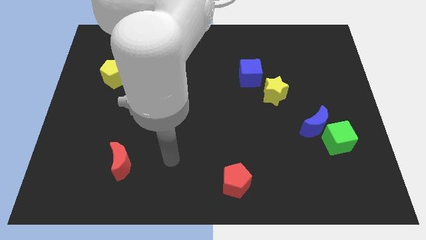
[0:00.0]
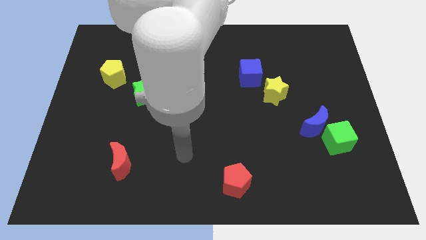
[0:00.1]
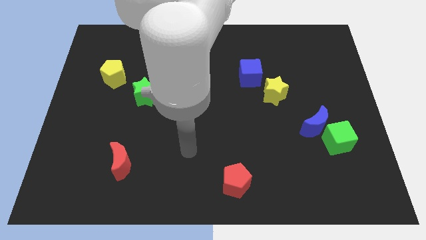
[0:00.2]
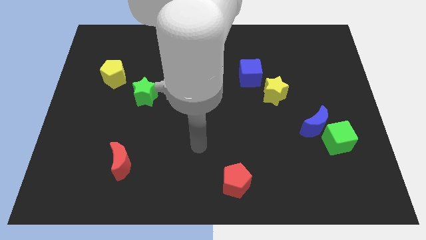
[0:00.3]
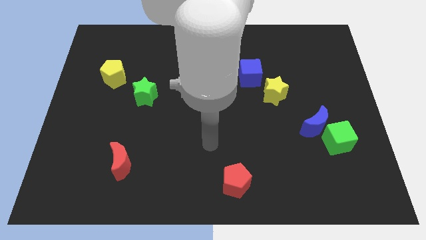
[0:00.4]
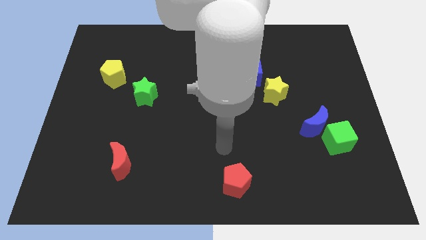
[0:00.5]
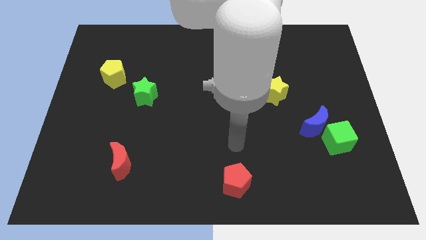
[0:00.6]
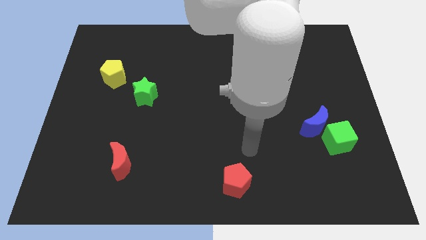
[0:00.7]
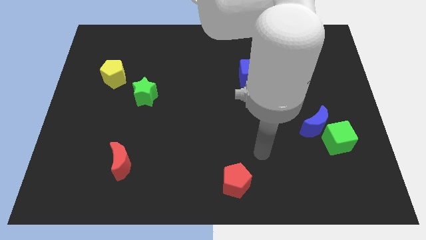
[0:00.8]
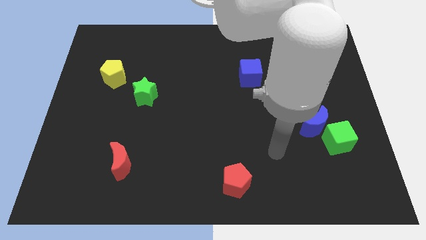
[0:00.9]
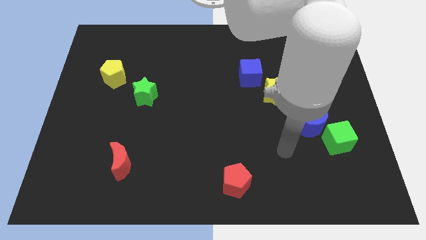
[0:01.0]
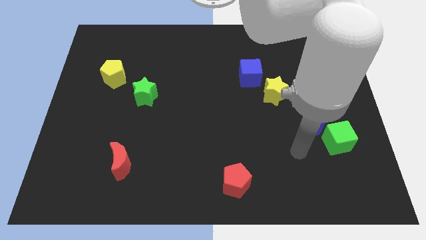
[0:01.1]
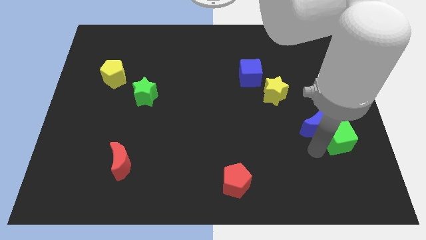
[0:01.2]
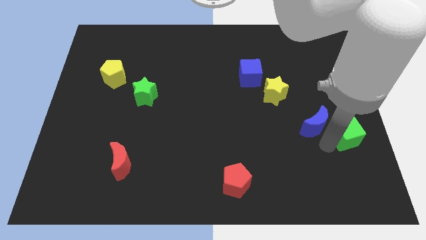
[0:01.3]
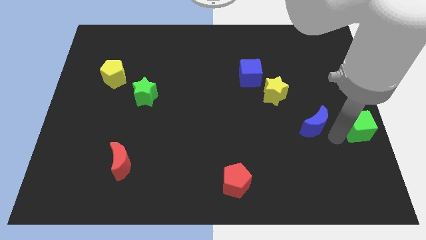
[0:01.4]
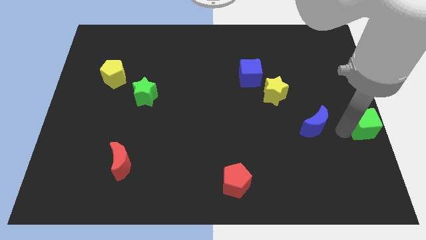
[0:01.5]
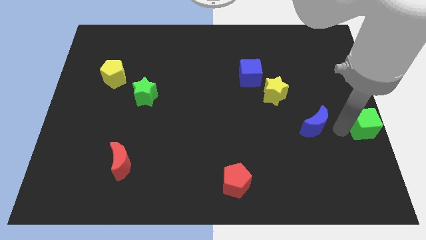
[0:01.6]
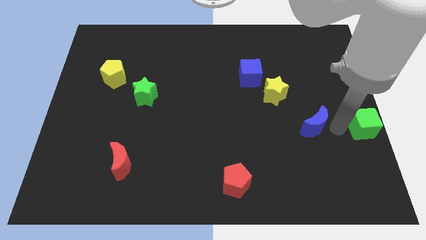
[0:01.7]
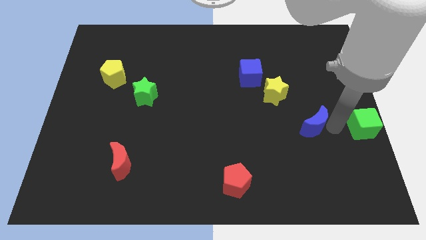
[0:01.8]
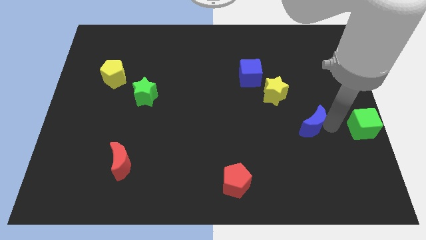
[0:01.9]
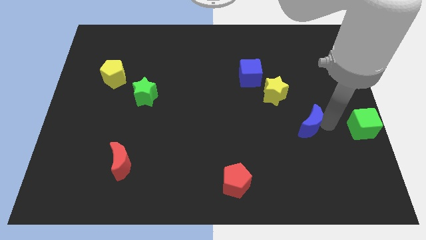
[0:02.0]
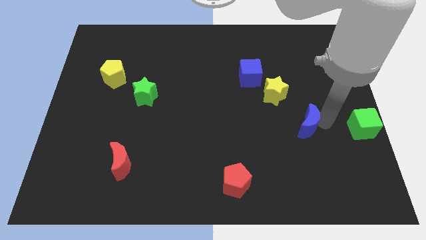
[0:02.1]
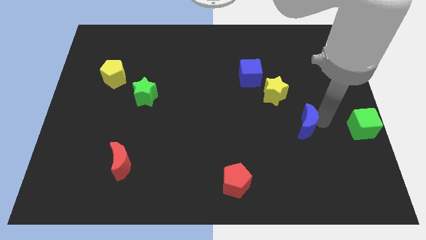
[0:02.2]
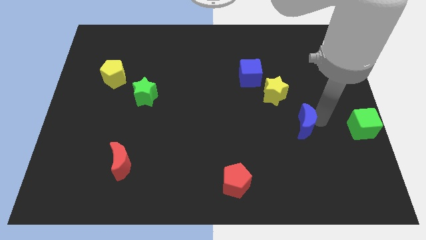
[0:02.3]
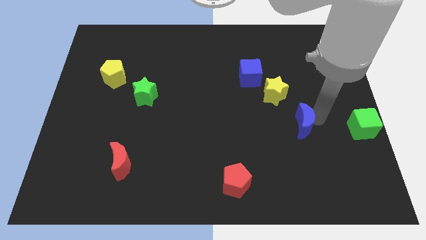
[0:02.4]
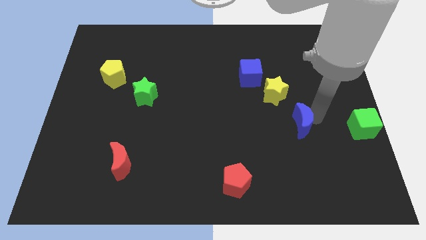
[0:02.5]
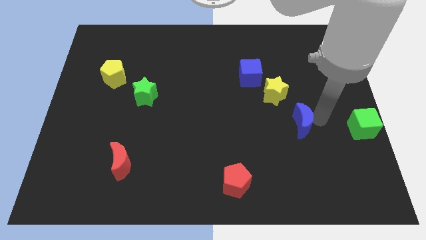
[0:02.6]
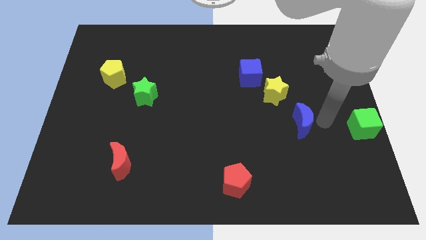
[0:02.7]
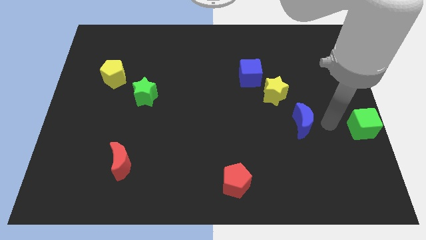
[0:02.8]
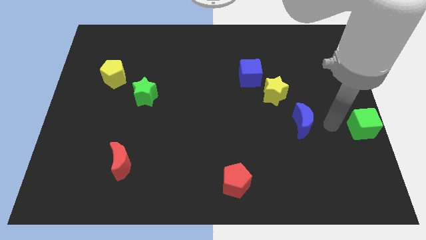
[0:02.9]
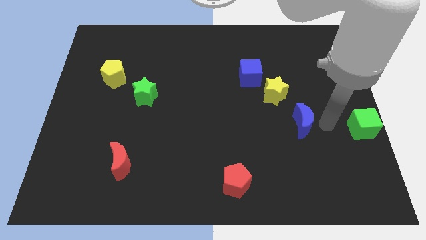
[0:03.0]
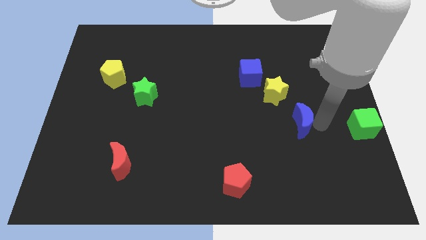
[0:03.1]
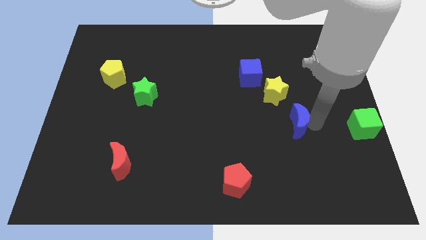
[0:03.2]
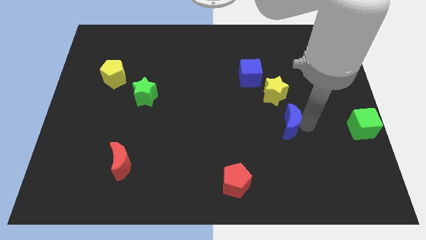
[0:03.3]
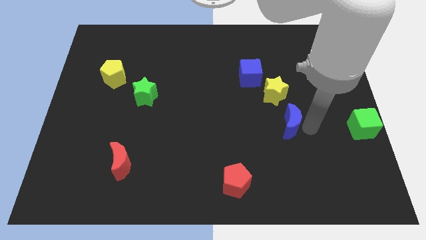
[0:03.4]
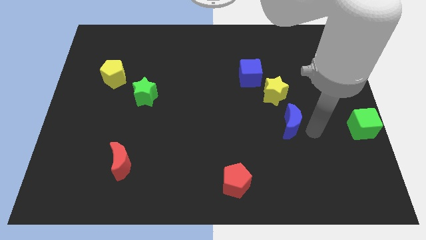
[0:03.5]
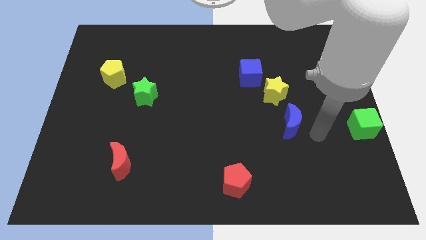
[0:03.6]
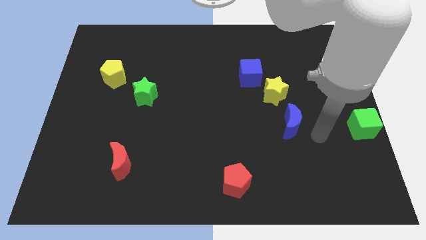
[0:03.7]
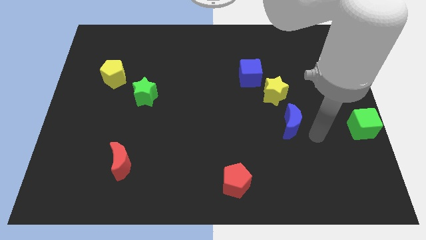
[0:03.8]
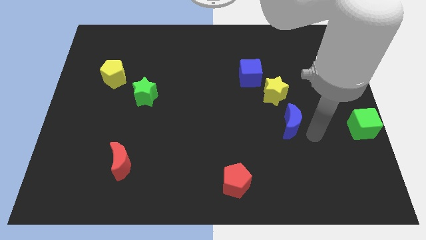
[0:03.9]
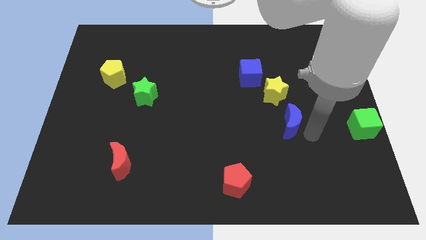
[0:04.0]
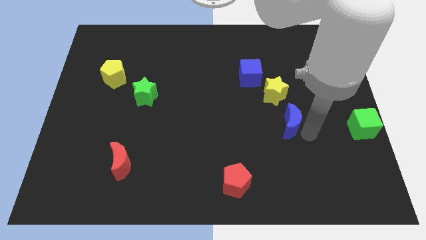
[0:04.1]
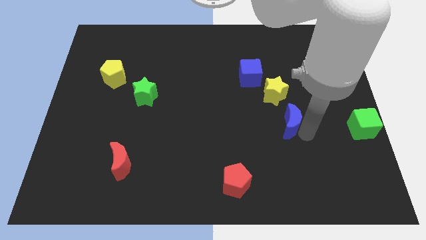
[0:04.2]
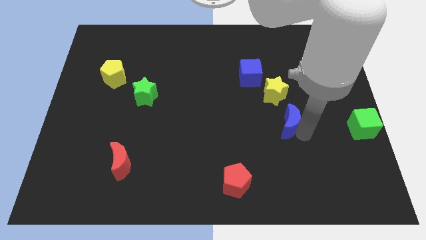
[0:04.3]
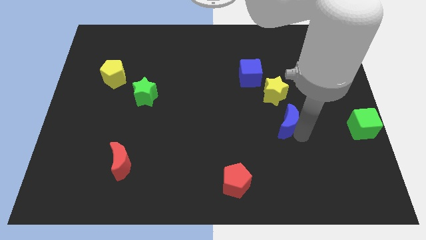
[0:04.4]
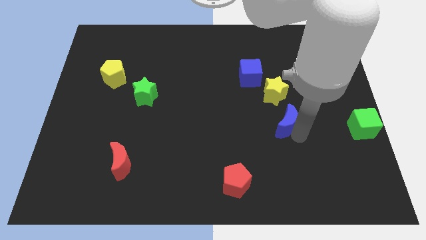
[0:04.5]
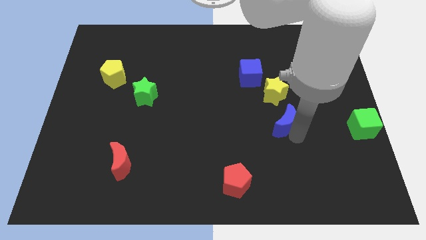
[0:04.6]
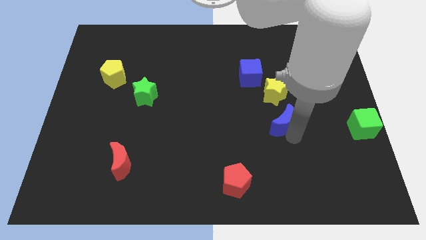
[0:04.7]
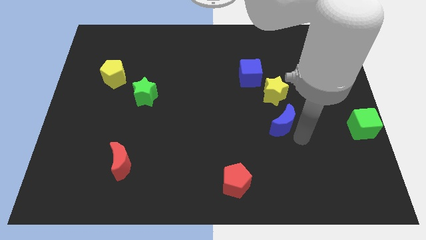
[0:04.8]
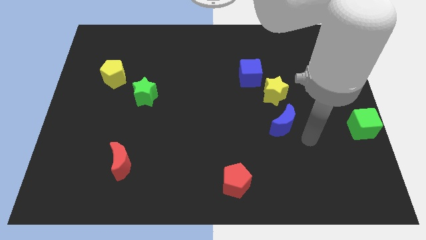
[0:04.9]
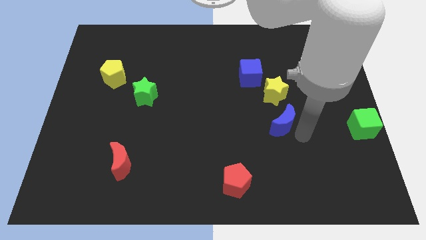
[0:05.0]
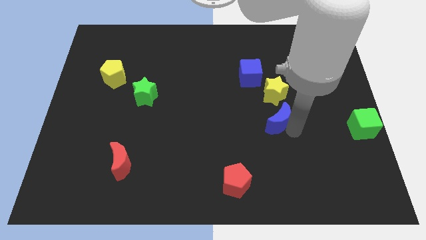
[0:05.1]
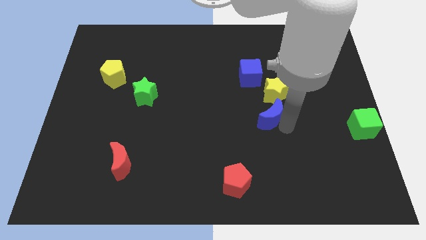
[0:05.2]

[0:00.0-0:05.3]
push the blue moon to the bottom side of the blue cube

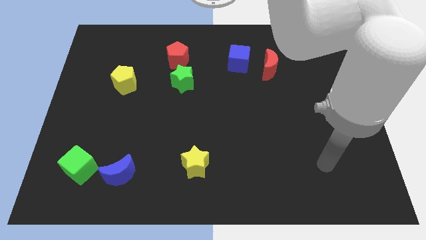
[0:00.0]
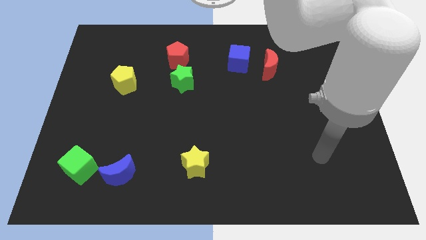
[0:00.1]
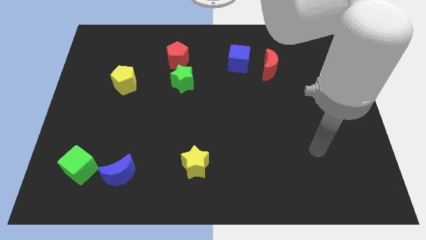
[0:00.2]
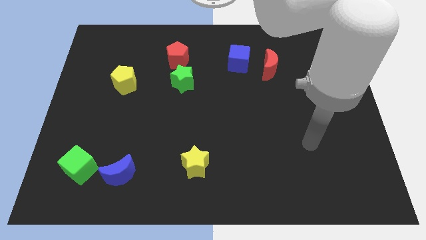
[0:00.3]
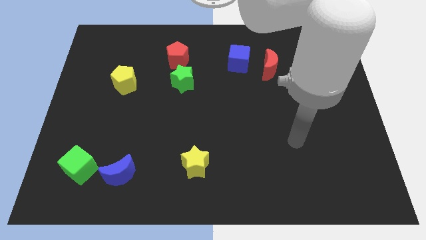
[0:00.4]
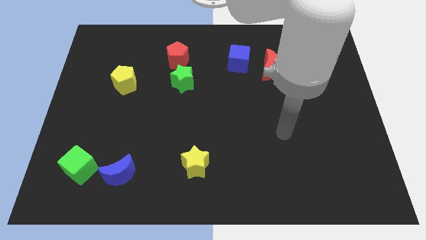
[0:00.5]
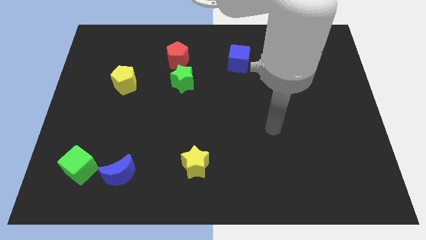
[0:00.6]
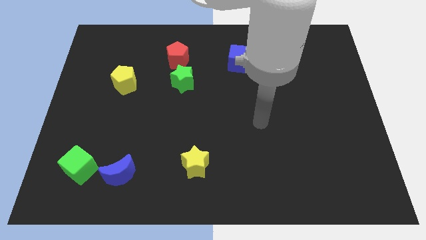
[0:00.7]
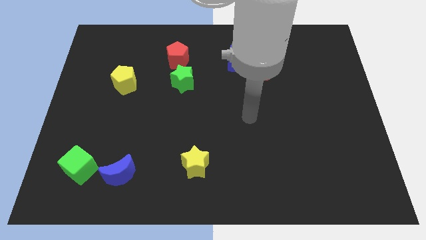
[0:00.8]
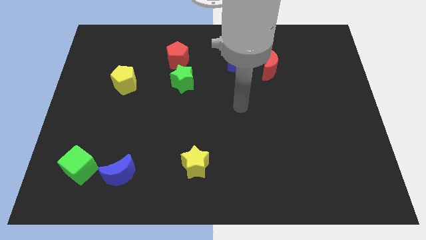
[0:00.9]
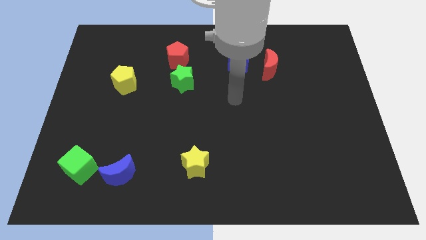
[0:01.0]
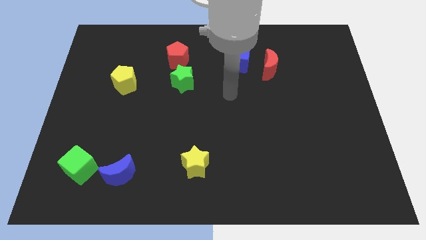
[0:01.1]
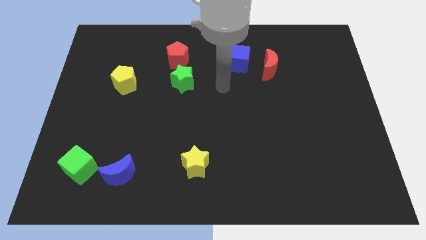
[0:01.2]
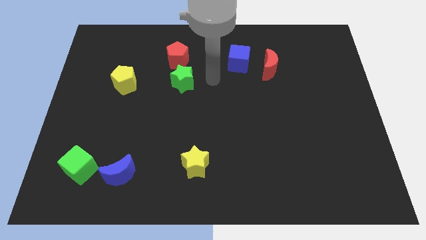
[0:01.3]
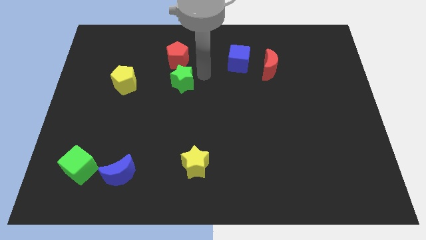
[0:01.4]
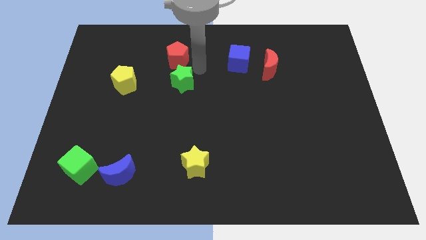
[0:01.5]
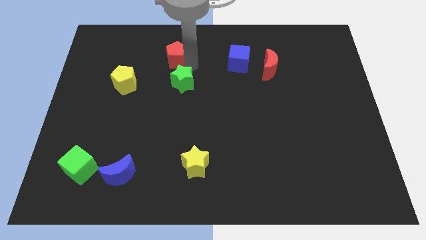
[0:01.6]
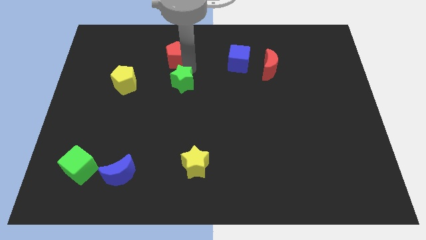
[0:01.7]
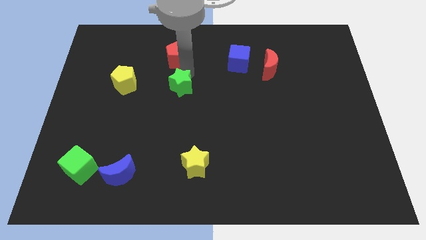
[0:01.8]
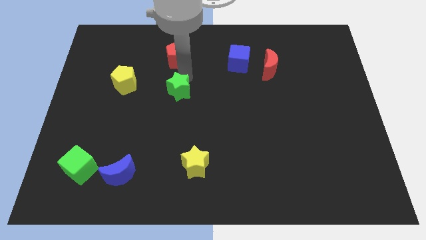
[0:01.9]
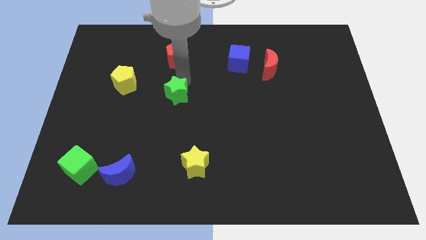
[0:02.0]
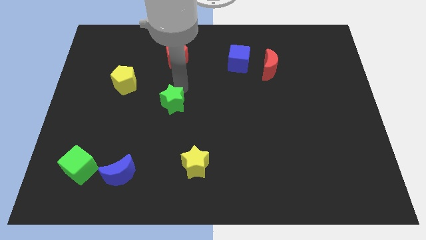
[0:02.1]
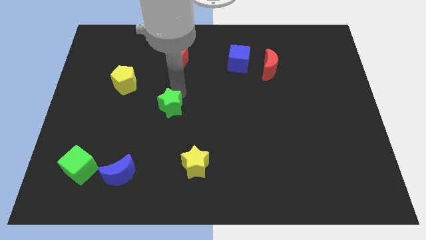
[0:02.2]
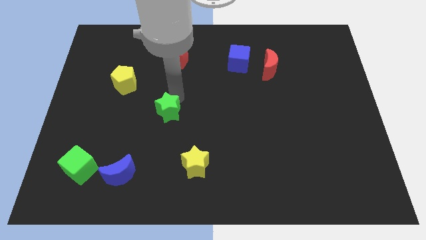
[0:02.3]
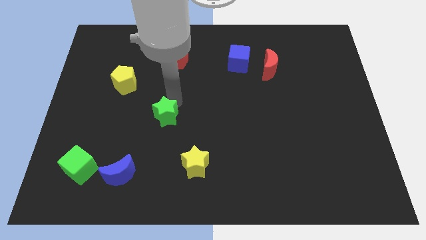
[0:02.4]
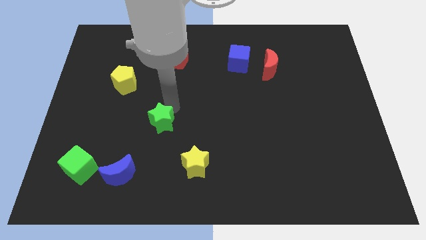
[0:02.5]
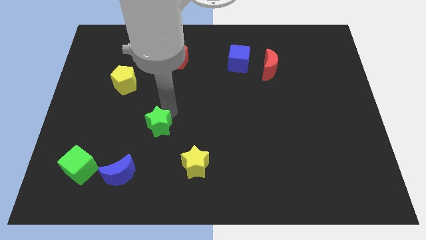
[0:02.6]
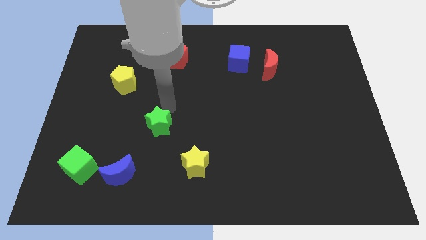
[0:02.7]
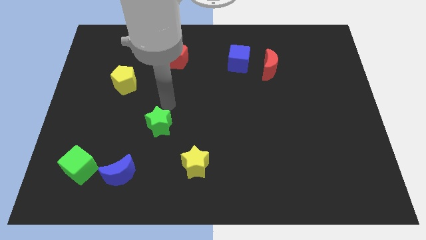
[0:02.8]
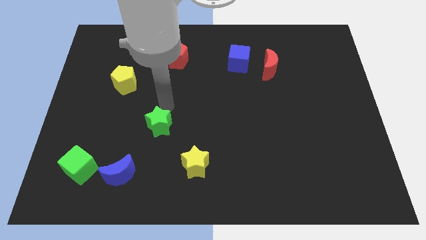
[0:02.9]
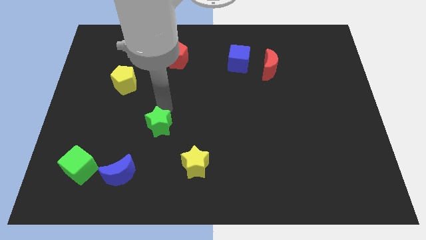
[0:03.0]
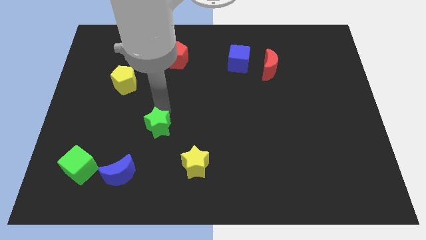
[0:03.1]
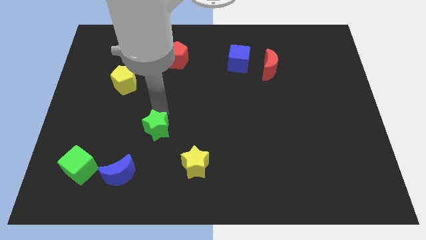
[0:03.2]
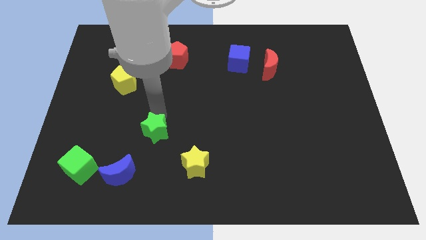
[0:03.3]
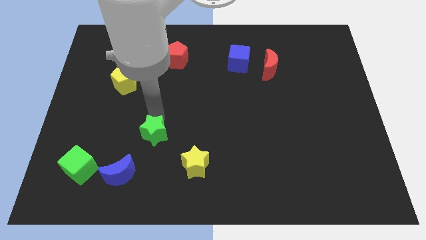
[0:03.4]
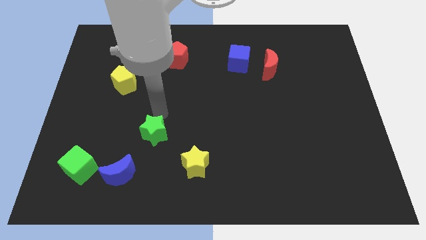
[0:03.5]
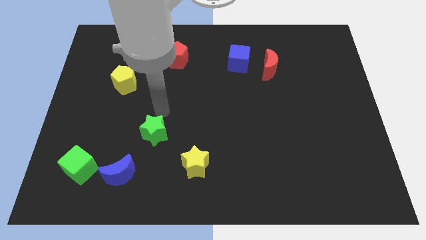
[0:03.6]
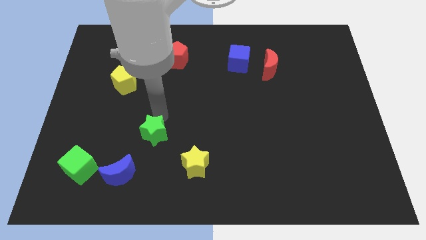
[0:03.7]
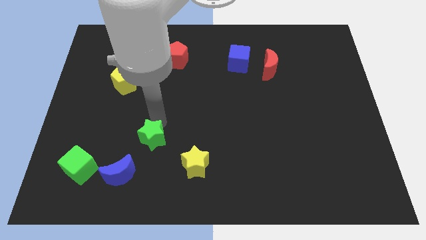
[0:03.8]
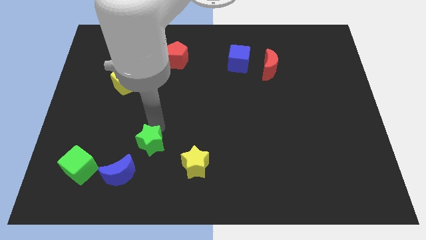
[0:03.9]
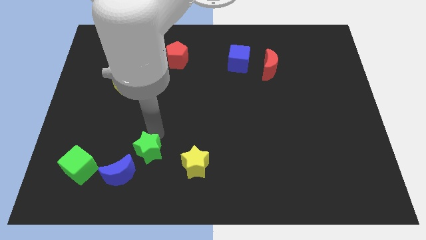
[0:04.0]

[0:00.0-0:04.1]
push the green star to the right of the green cube
